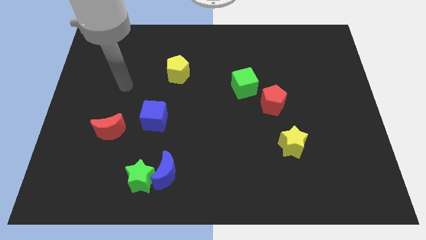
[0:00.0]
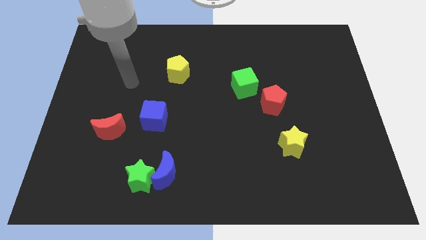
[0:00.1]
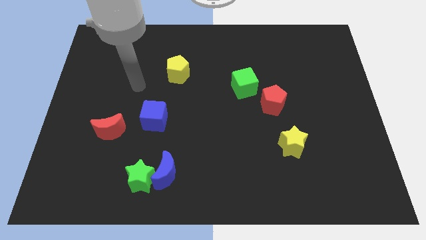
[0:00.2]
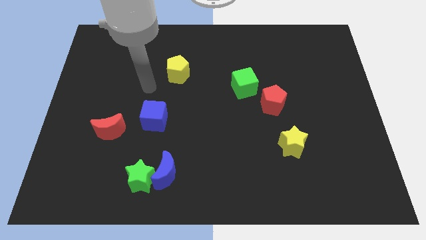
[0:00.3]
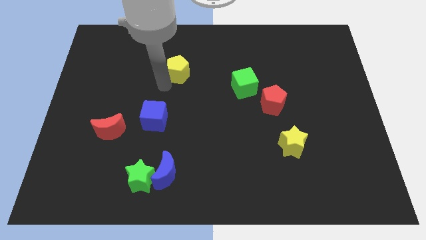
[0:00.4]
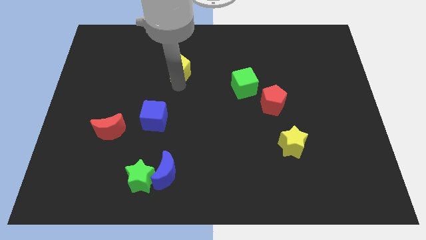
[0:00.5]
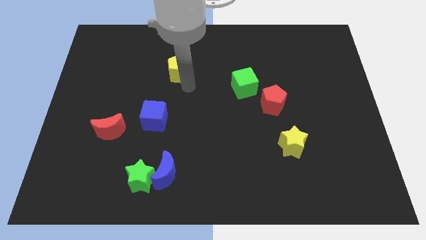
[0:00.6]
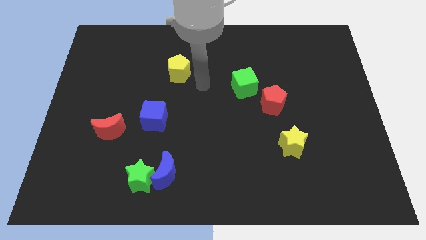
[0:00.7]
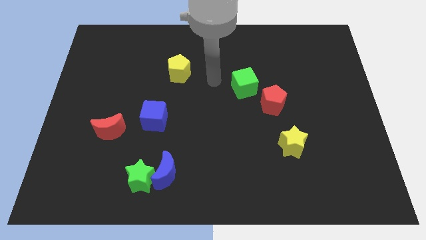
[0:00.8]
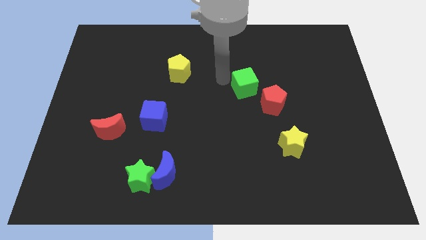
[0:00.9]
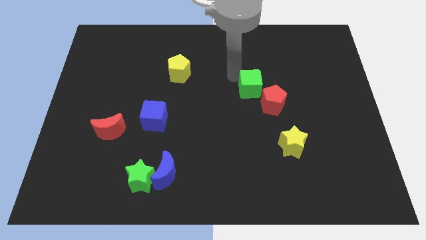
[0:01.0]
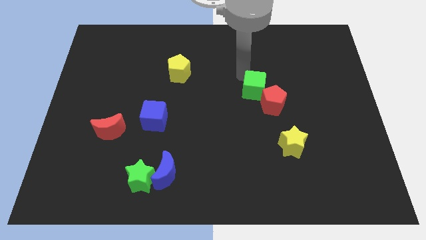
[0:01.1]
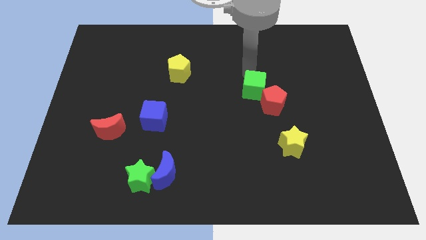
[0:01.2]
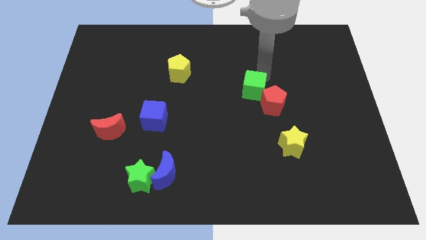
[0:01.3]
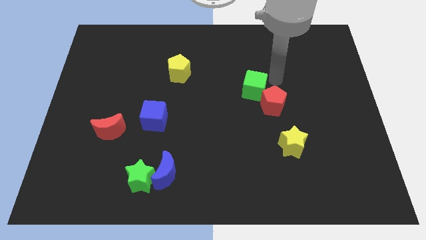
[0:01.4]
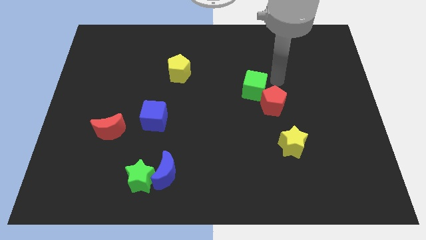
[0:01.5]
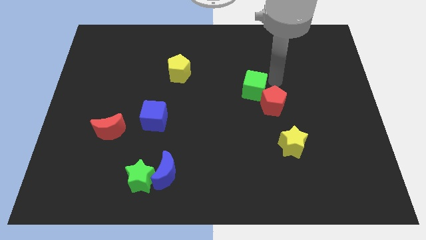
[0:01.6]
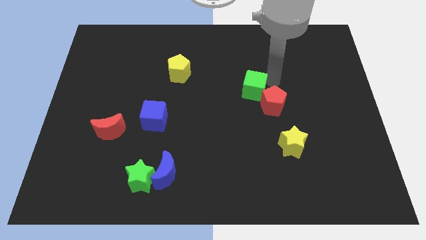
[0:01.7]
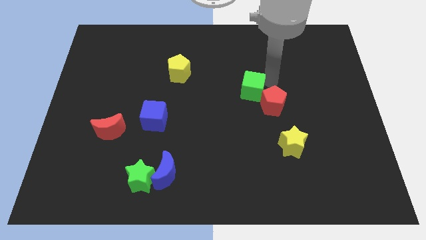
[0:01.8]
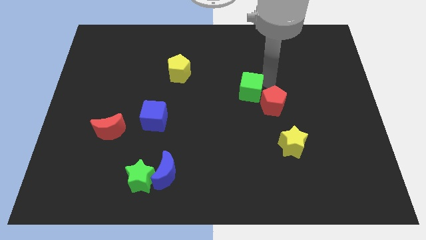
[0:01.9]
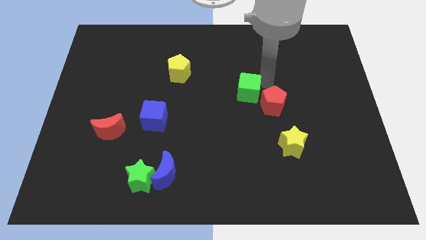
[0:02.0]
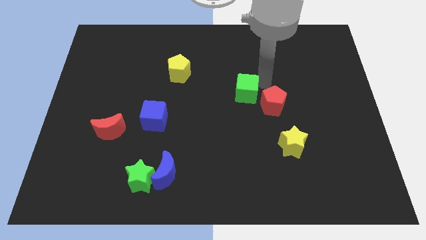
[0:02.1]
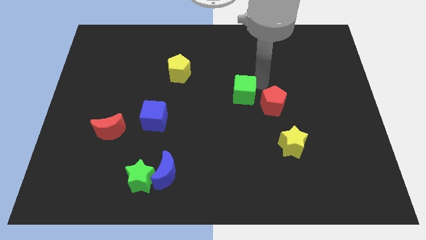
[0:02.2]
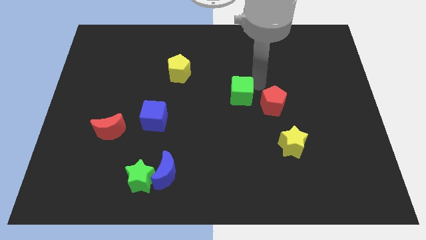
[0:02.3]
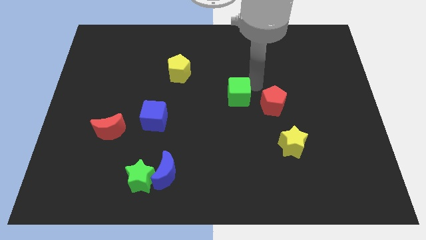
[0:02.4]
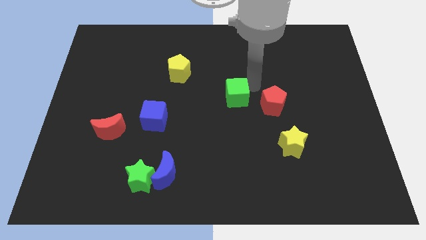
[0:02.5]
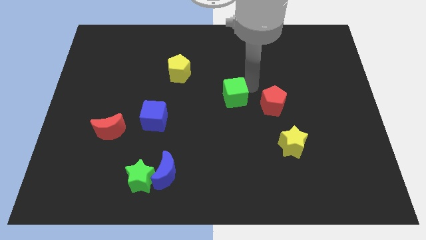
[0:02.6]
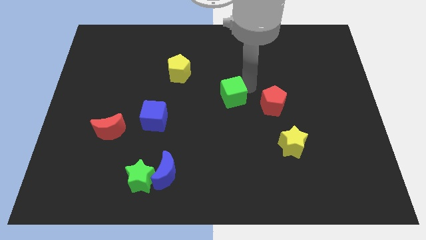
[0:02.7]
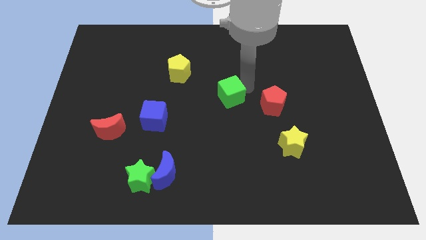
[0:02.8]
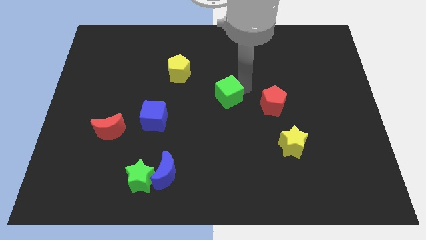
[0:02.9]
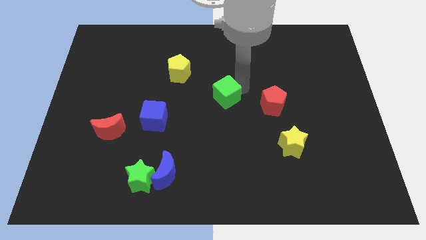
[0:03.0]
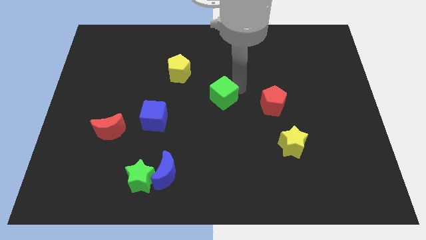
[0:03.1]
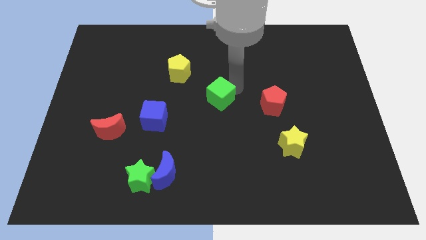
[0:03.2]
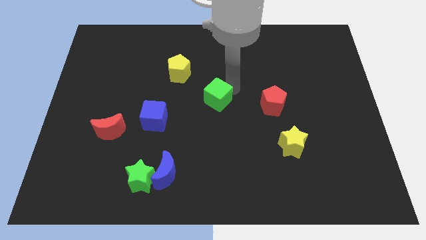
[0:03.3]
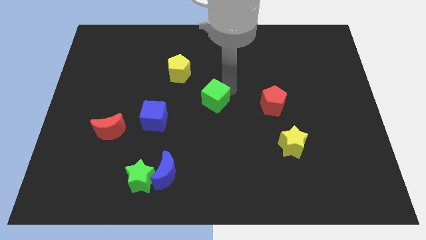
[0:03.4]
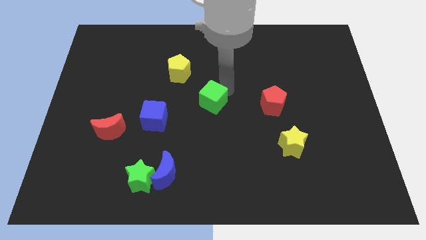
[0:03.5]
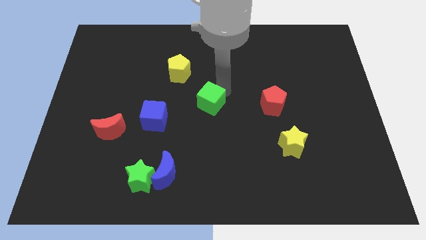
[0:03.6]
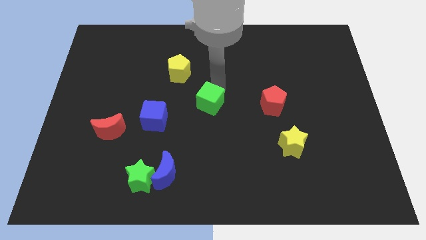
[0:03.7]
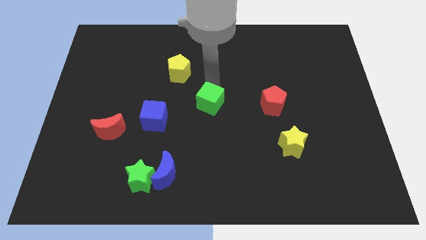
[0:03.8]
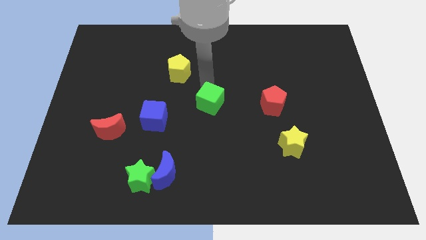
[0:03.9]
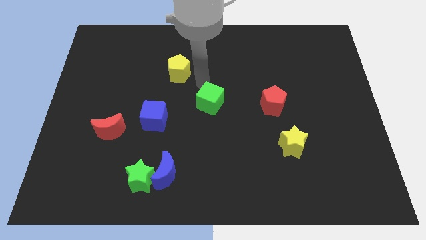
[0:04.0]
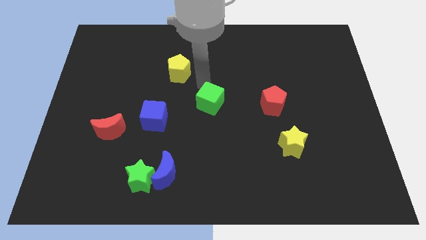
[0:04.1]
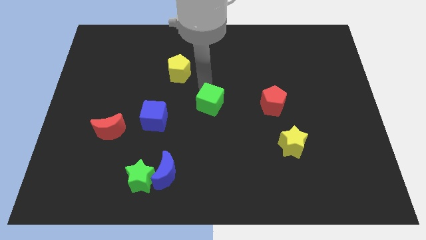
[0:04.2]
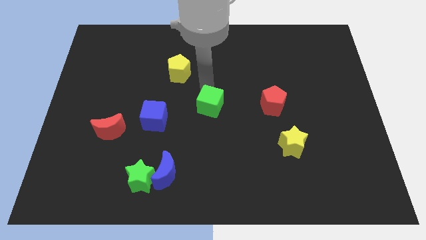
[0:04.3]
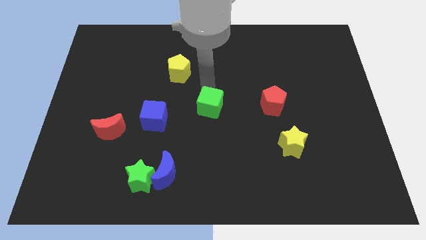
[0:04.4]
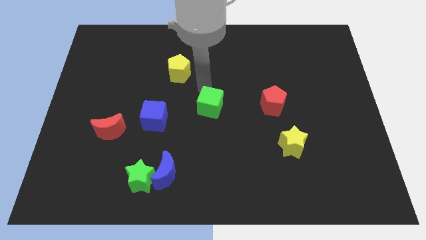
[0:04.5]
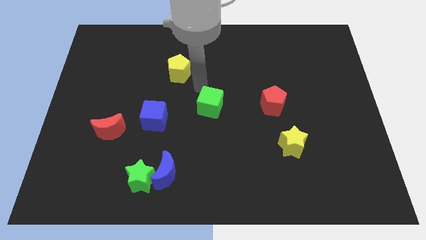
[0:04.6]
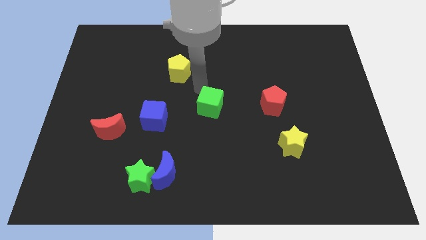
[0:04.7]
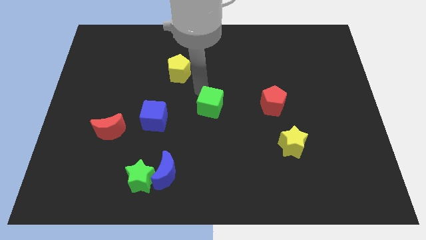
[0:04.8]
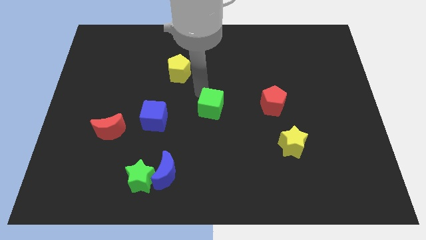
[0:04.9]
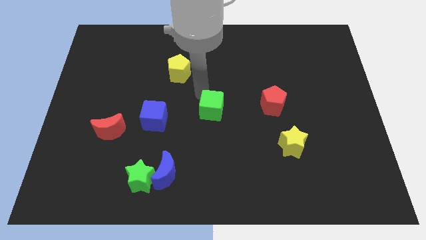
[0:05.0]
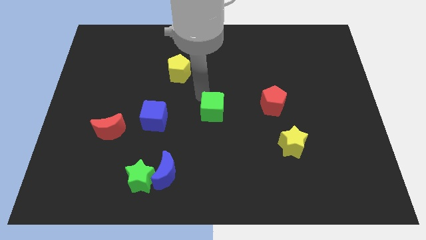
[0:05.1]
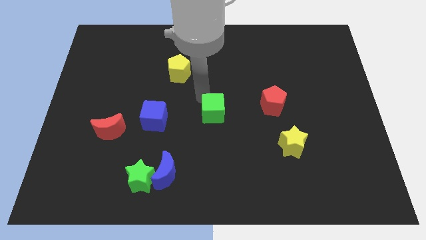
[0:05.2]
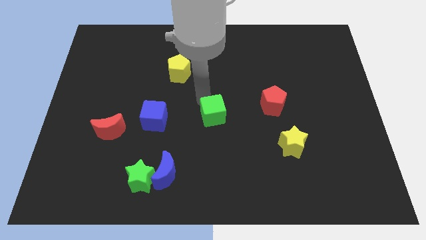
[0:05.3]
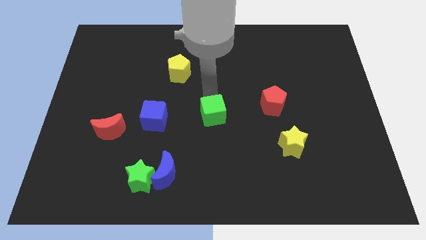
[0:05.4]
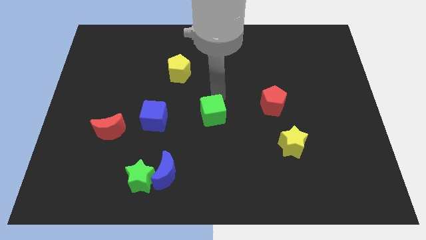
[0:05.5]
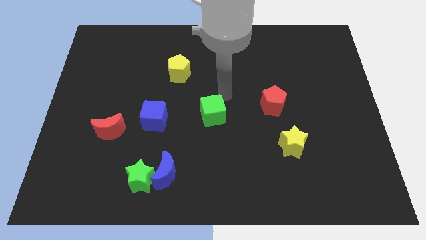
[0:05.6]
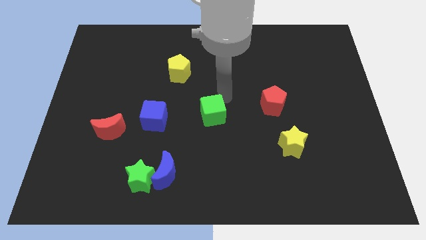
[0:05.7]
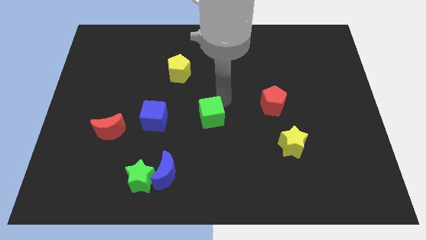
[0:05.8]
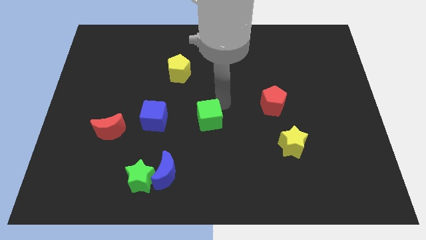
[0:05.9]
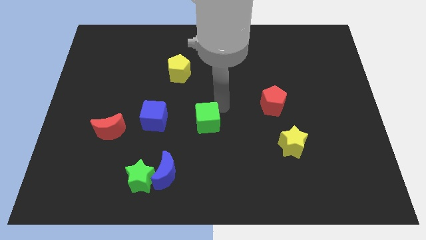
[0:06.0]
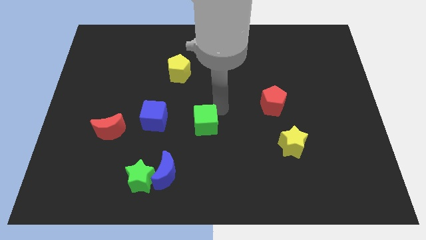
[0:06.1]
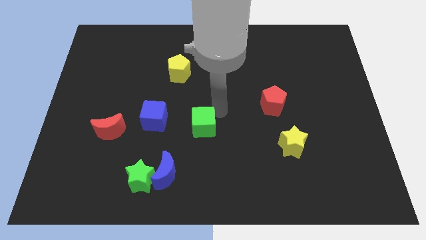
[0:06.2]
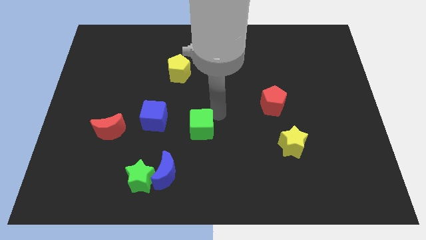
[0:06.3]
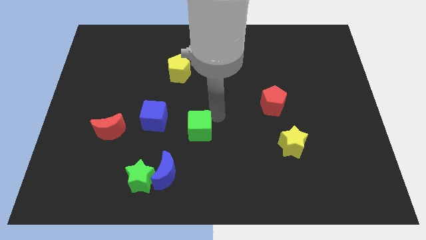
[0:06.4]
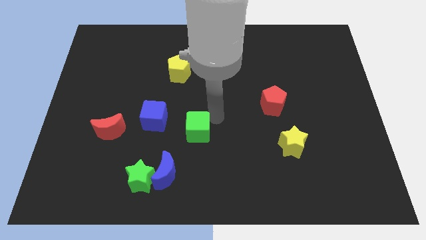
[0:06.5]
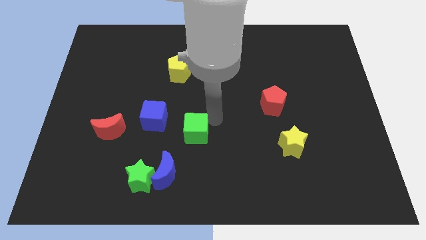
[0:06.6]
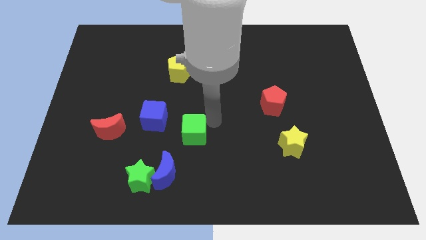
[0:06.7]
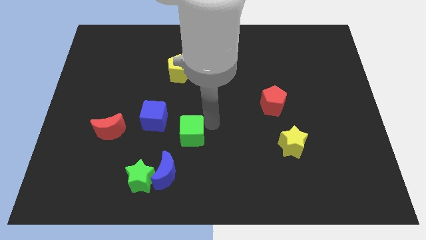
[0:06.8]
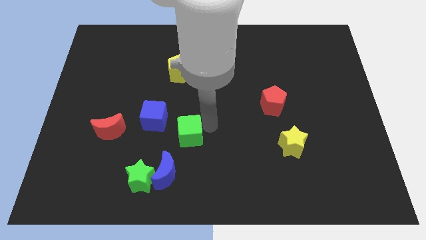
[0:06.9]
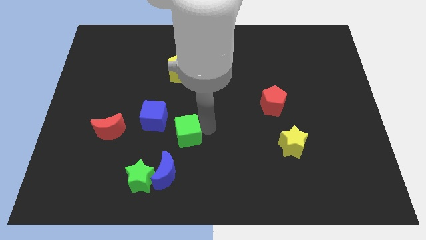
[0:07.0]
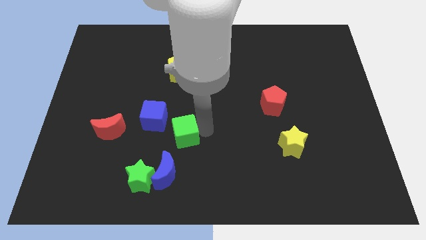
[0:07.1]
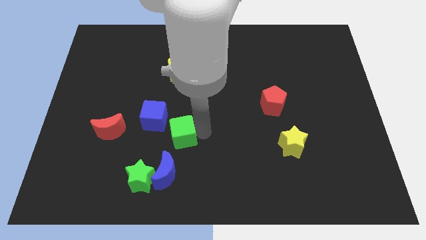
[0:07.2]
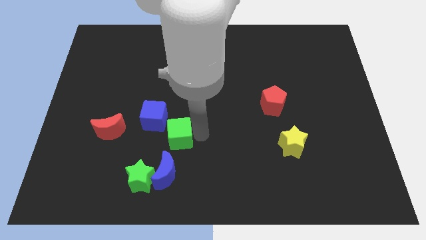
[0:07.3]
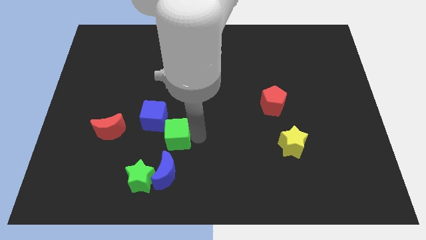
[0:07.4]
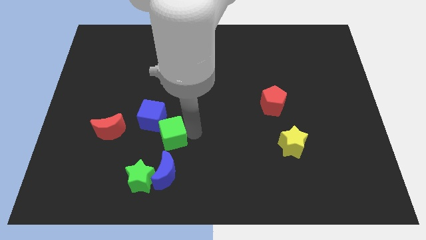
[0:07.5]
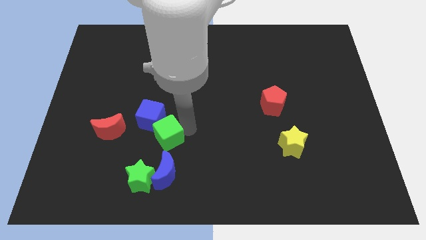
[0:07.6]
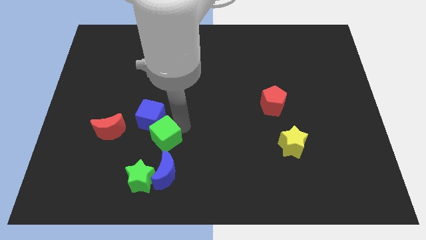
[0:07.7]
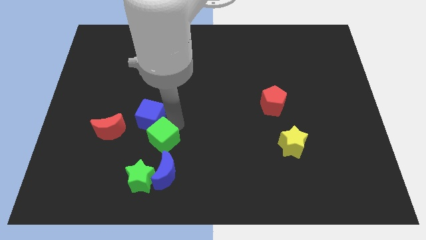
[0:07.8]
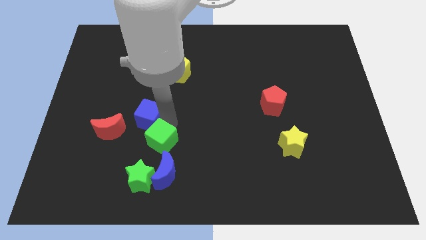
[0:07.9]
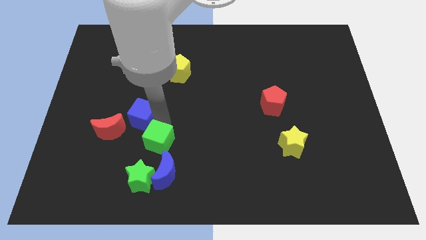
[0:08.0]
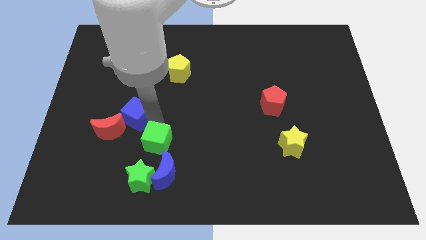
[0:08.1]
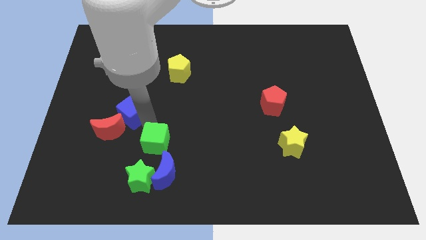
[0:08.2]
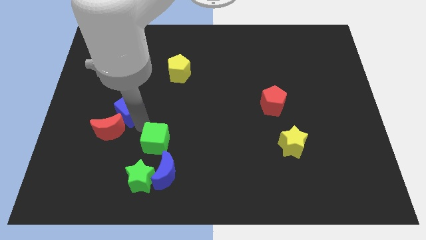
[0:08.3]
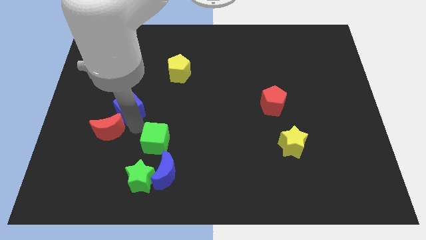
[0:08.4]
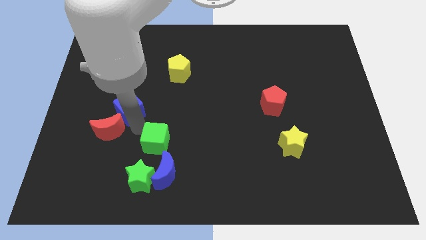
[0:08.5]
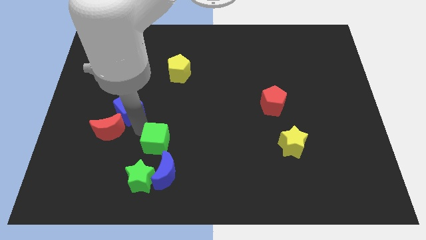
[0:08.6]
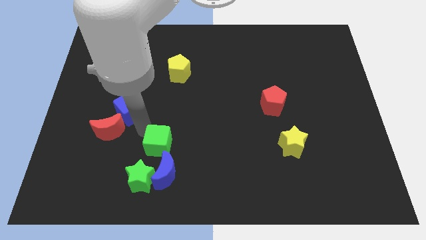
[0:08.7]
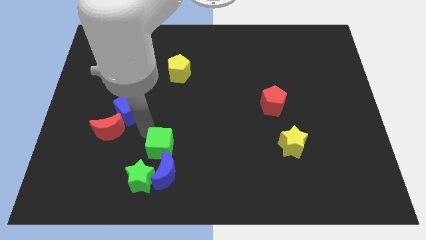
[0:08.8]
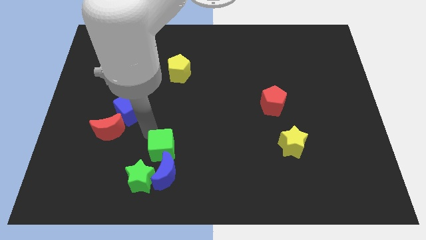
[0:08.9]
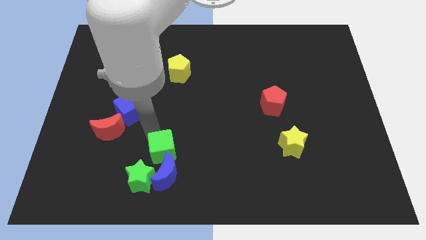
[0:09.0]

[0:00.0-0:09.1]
slide the green cube next to the blue moon
